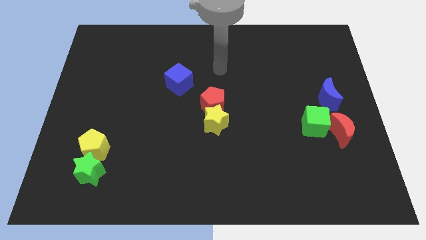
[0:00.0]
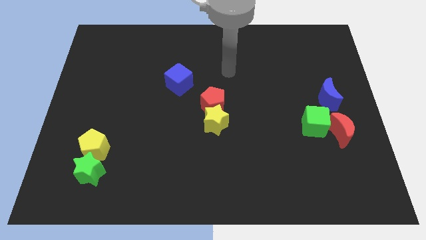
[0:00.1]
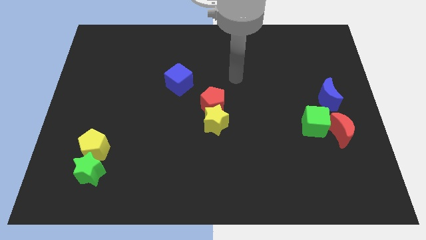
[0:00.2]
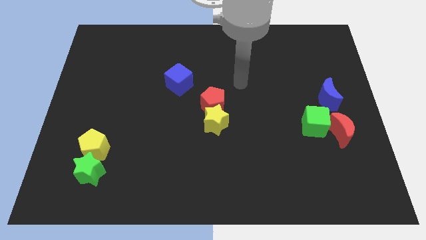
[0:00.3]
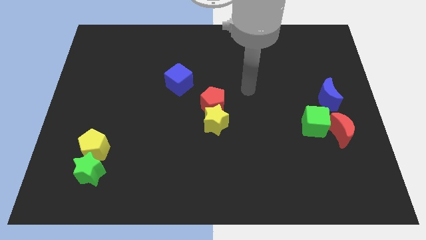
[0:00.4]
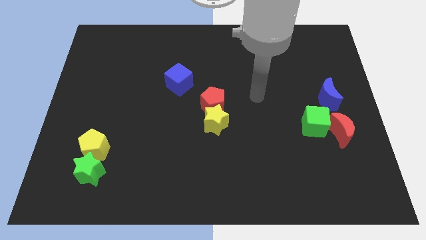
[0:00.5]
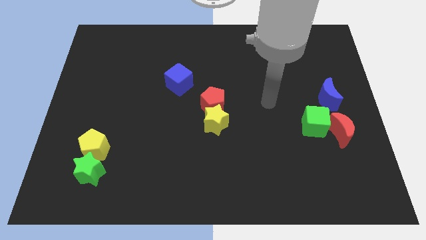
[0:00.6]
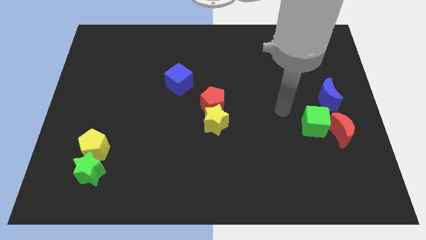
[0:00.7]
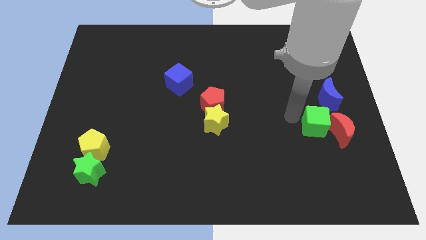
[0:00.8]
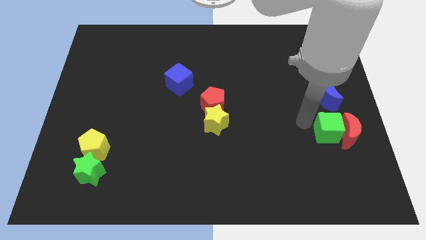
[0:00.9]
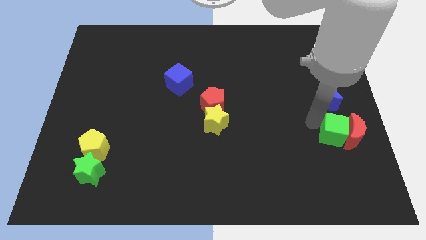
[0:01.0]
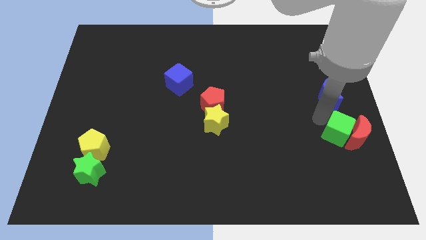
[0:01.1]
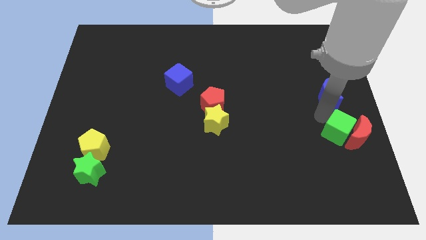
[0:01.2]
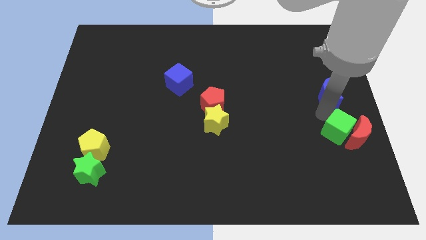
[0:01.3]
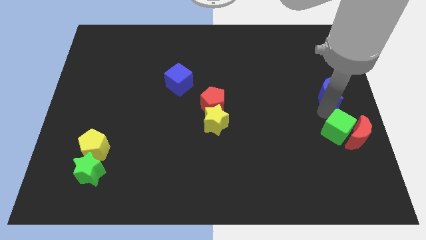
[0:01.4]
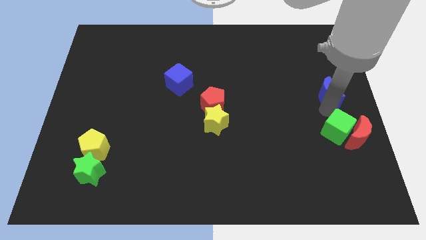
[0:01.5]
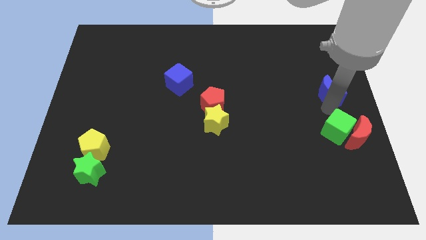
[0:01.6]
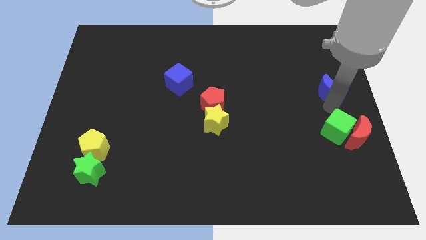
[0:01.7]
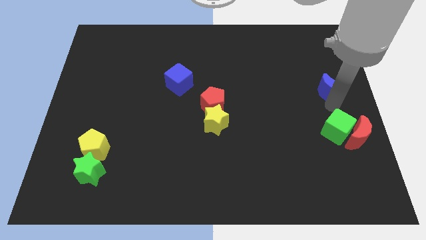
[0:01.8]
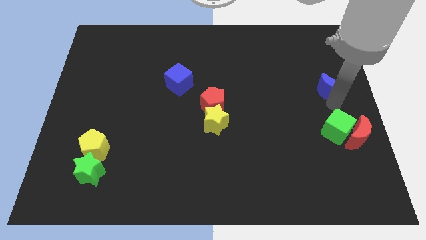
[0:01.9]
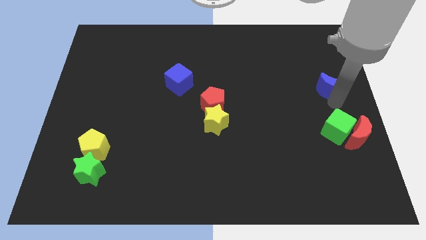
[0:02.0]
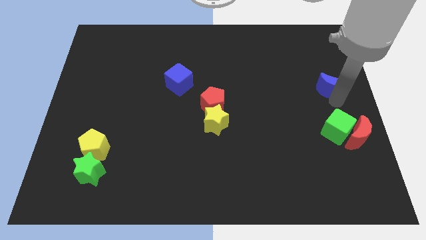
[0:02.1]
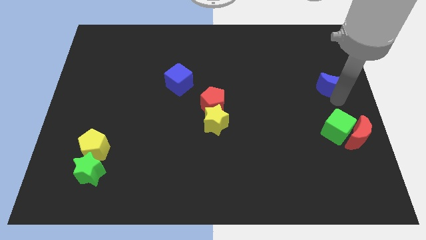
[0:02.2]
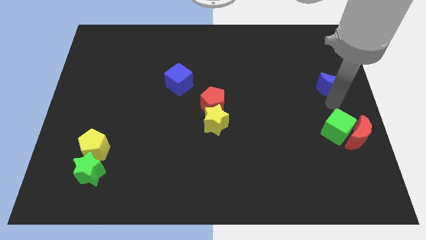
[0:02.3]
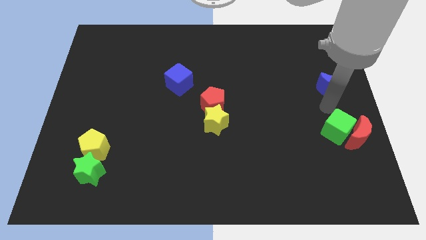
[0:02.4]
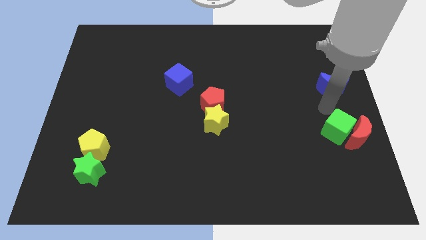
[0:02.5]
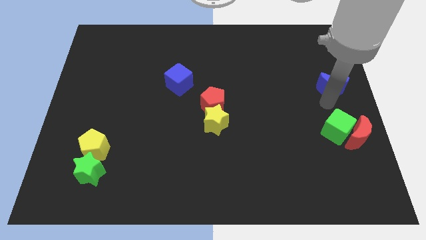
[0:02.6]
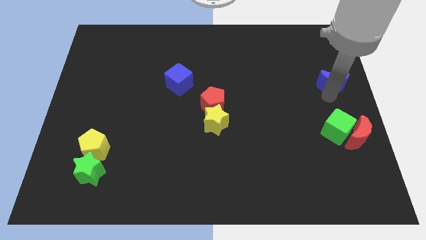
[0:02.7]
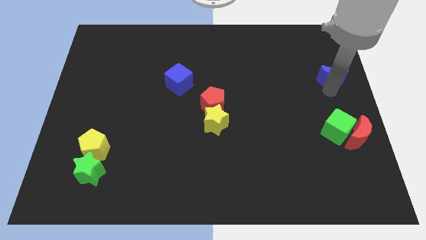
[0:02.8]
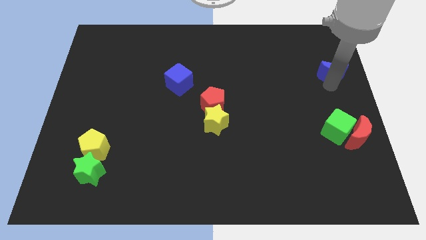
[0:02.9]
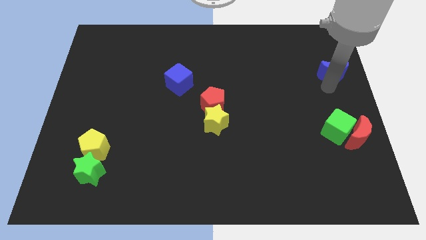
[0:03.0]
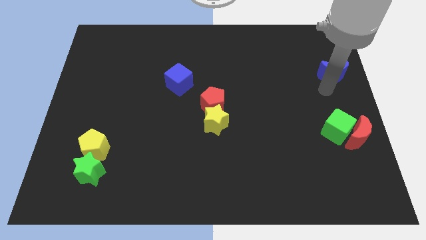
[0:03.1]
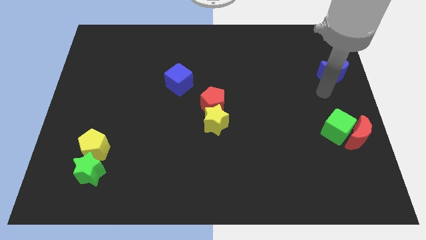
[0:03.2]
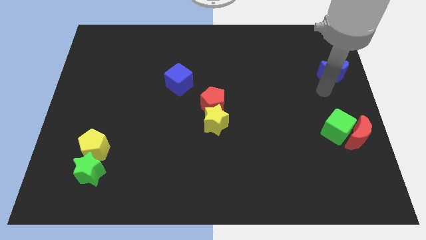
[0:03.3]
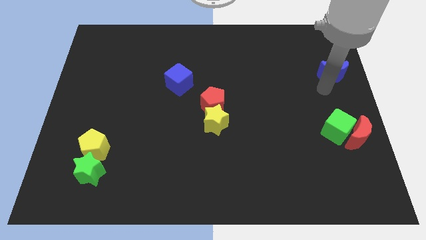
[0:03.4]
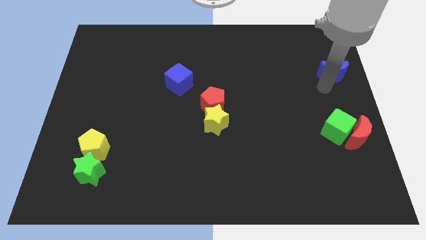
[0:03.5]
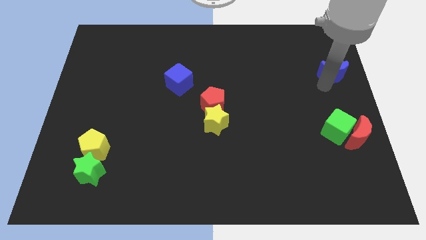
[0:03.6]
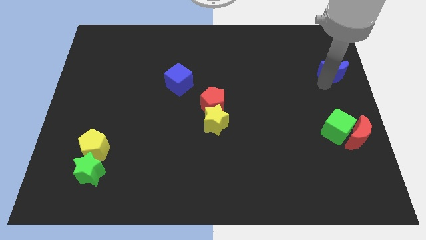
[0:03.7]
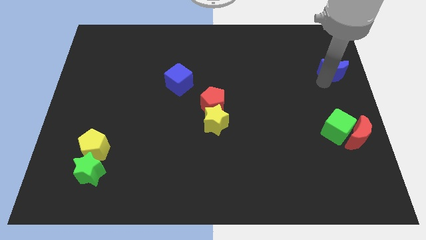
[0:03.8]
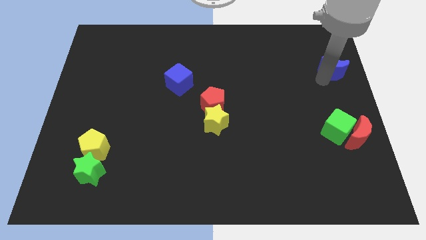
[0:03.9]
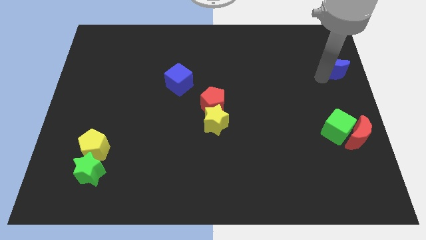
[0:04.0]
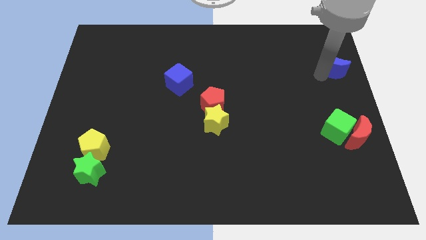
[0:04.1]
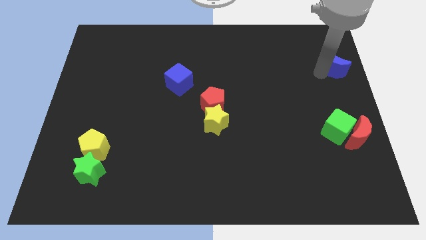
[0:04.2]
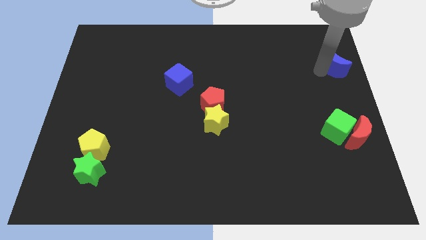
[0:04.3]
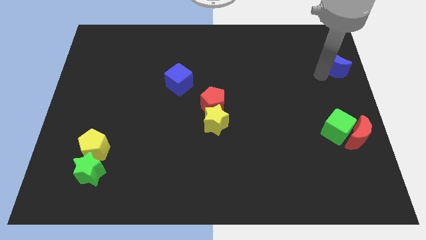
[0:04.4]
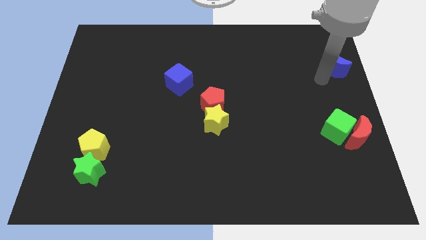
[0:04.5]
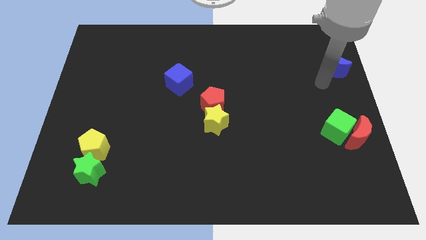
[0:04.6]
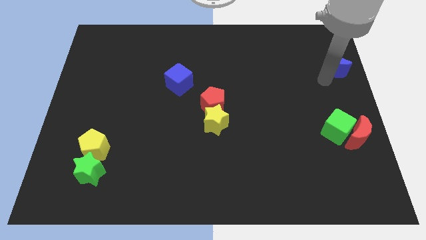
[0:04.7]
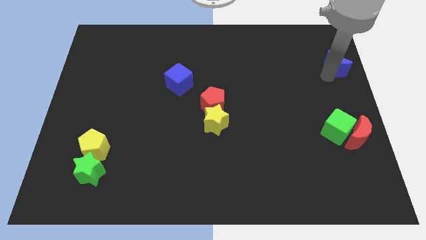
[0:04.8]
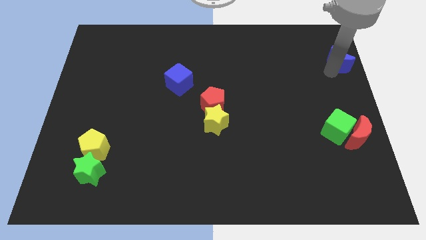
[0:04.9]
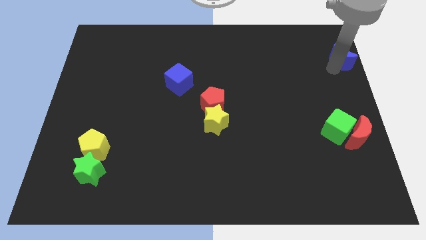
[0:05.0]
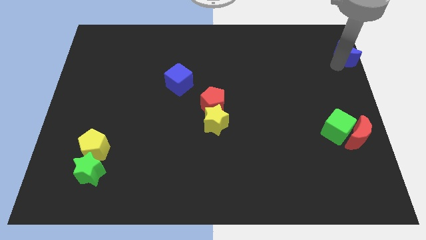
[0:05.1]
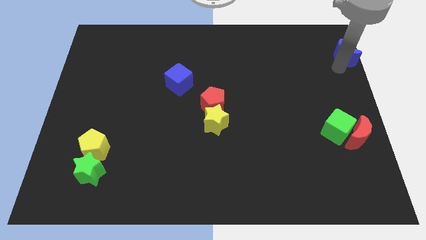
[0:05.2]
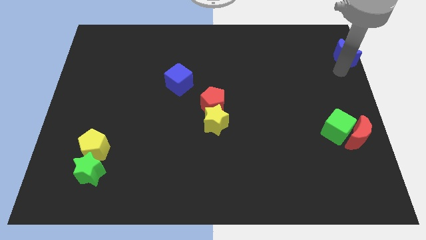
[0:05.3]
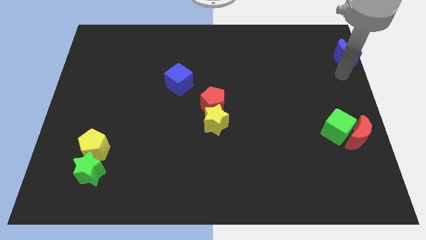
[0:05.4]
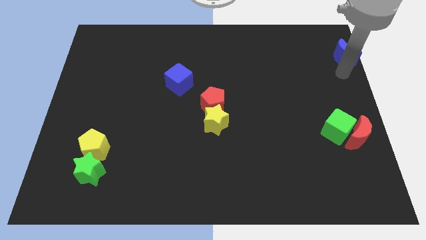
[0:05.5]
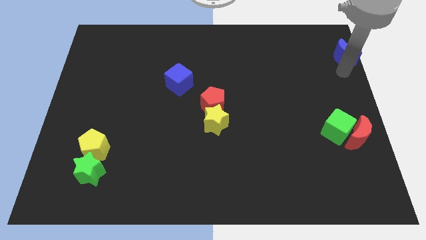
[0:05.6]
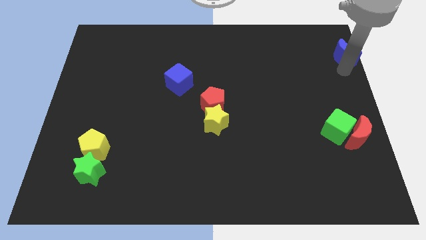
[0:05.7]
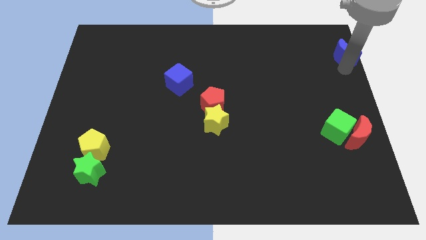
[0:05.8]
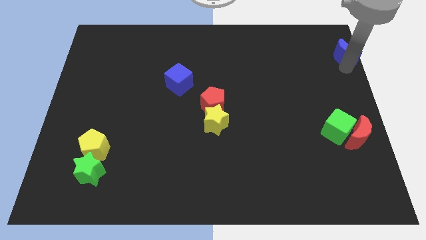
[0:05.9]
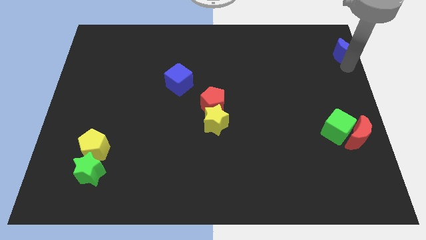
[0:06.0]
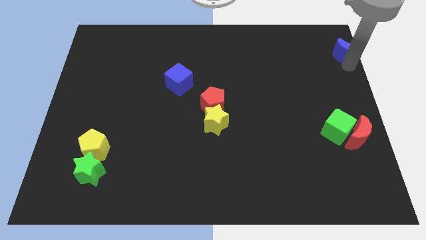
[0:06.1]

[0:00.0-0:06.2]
slide the blue moon to the top right corner

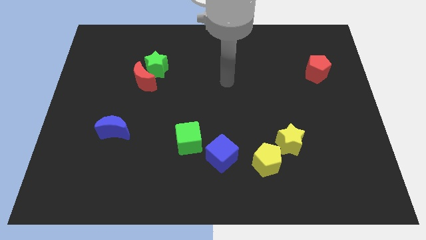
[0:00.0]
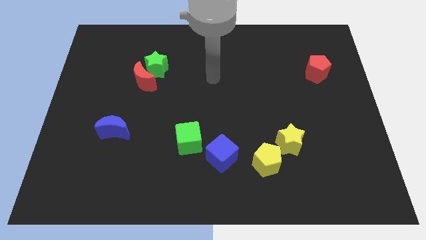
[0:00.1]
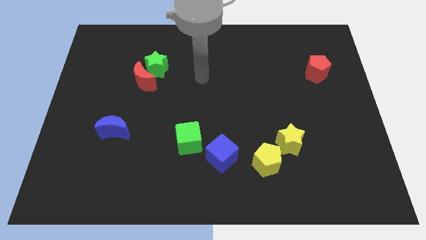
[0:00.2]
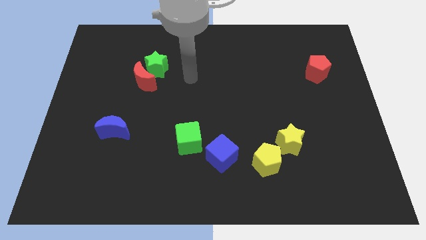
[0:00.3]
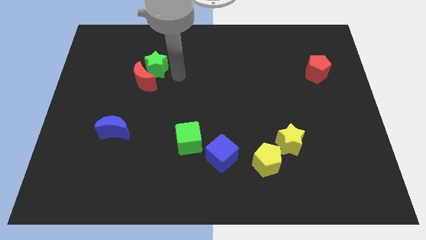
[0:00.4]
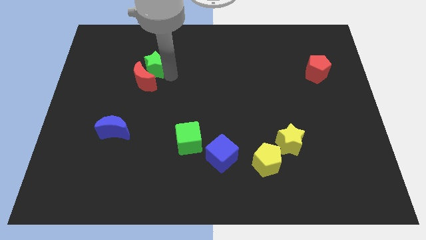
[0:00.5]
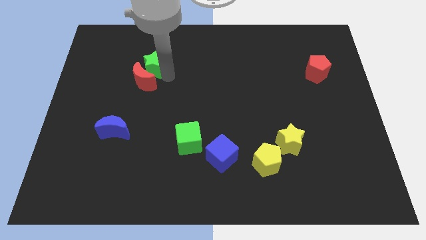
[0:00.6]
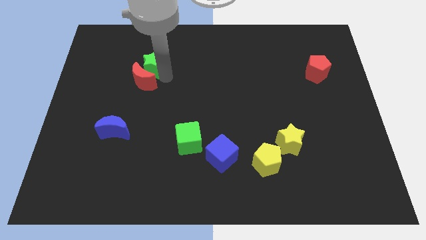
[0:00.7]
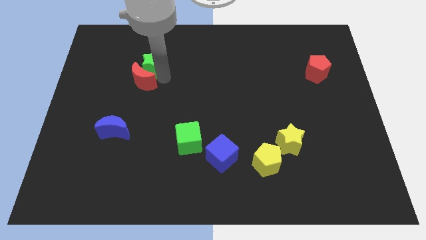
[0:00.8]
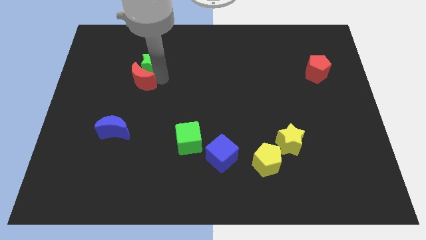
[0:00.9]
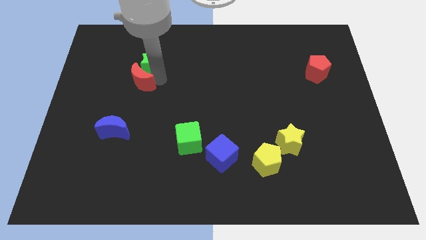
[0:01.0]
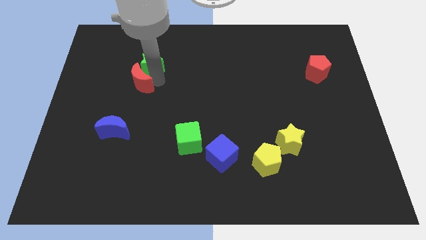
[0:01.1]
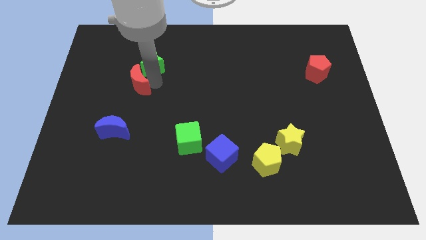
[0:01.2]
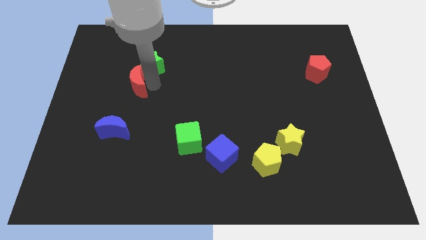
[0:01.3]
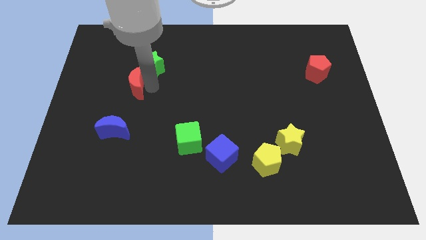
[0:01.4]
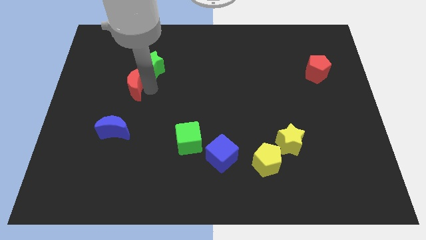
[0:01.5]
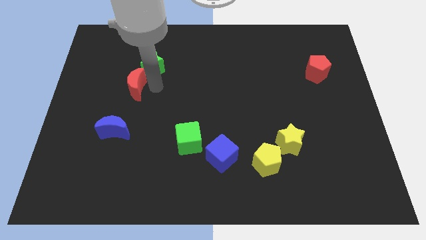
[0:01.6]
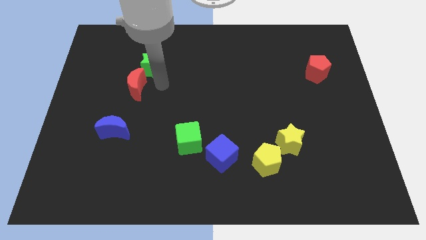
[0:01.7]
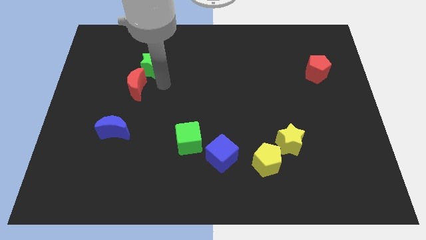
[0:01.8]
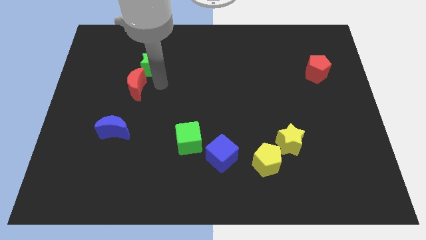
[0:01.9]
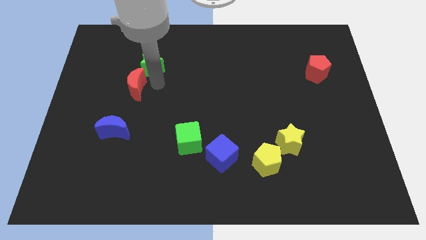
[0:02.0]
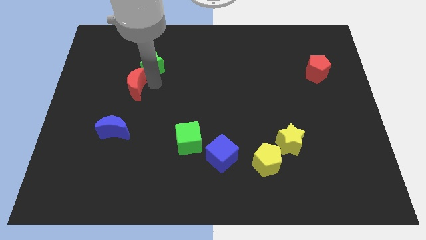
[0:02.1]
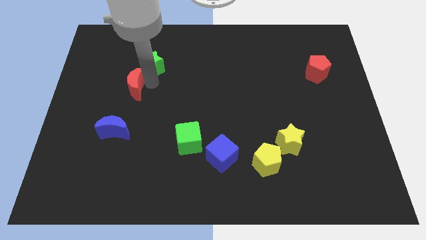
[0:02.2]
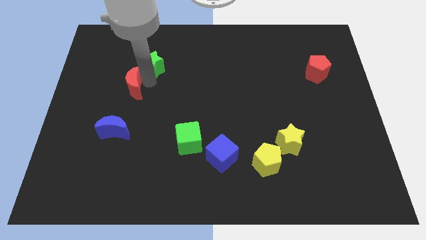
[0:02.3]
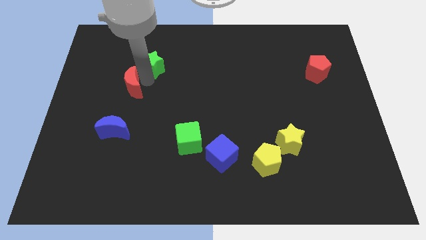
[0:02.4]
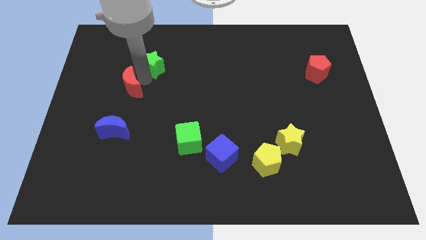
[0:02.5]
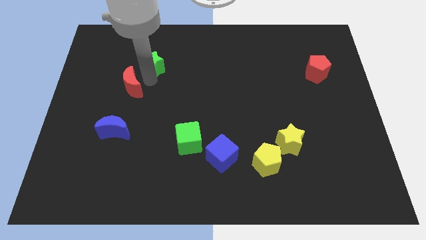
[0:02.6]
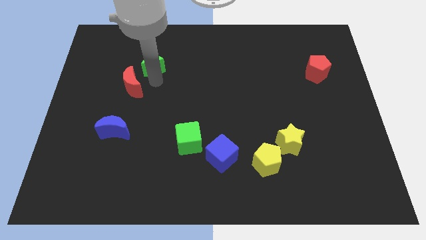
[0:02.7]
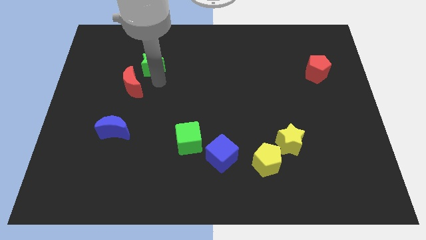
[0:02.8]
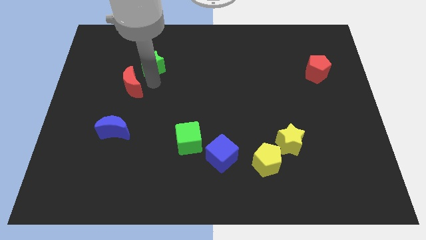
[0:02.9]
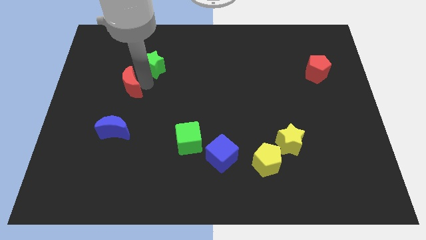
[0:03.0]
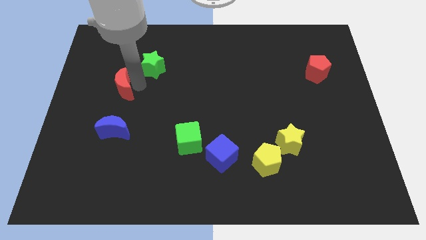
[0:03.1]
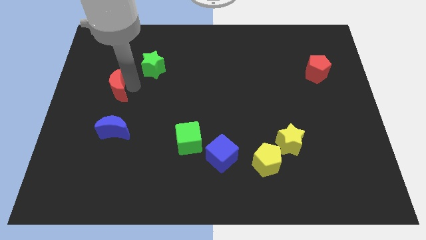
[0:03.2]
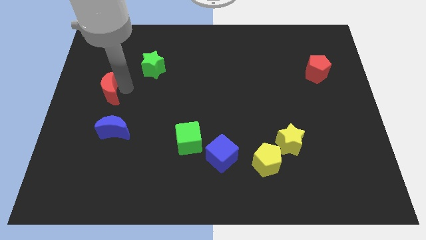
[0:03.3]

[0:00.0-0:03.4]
slide the red moon to the left side
